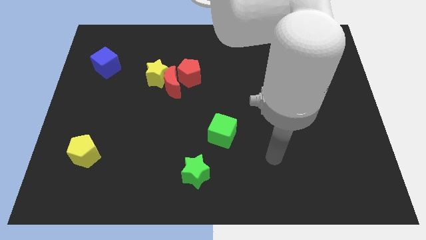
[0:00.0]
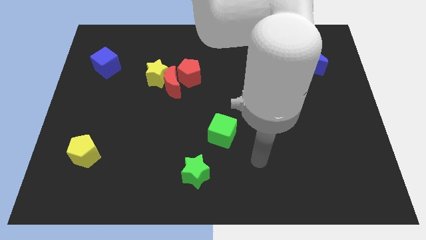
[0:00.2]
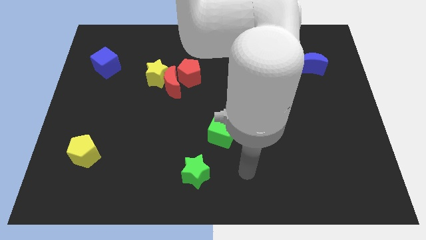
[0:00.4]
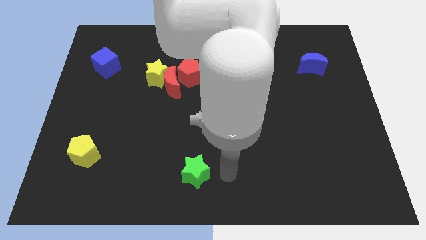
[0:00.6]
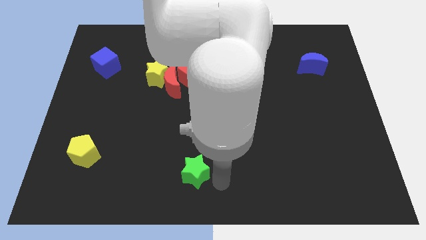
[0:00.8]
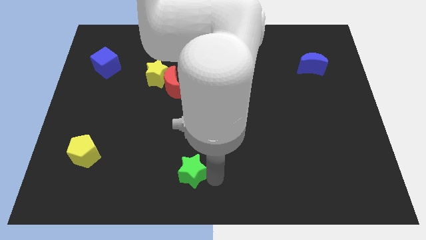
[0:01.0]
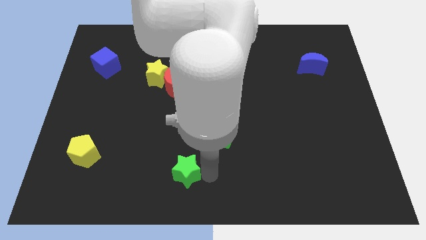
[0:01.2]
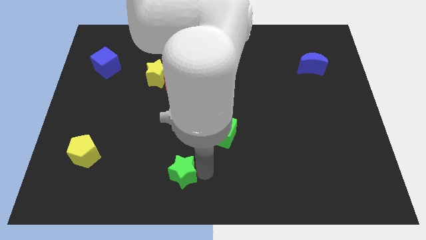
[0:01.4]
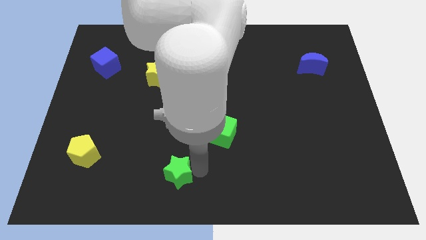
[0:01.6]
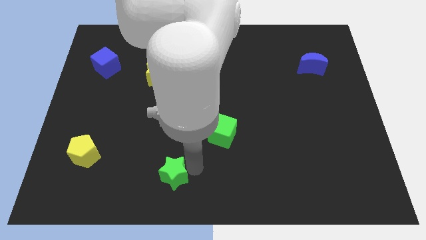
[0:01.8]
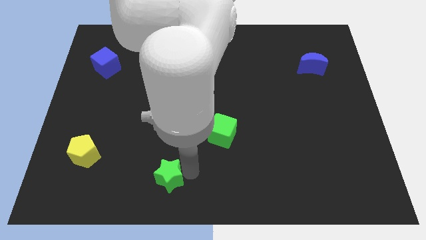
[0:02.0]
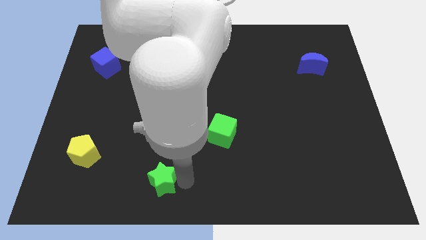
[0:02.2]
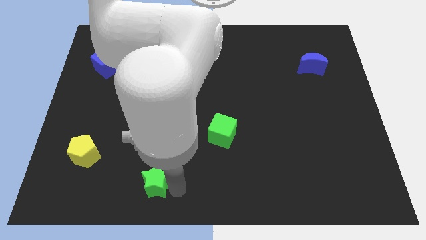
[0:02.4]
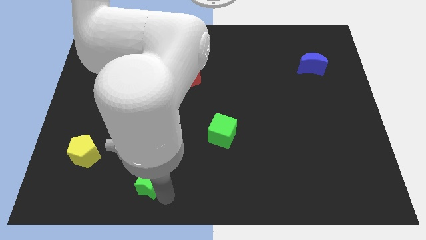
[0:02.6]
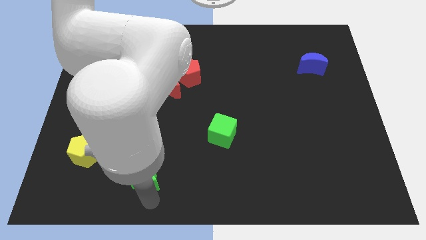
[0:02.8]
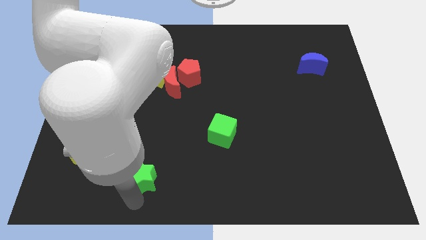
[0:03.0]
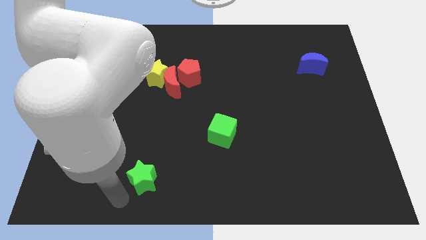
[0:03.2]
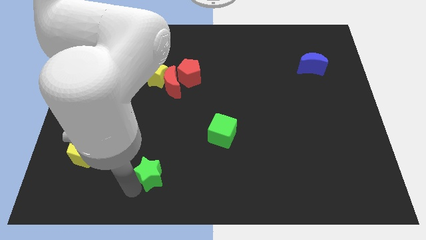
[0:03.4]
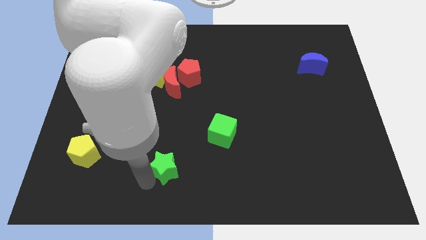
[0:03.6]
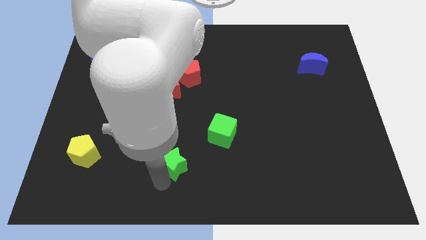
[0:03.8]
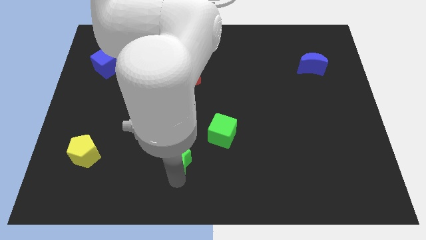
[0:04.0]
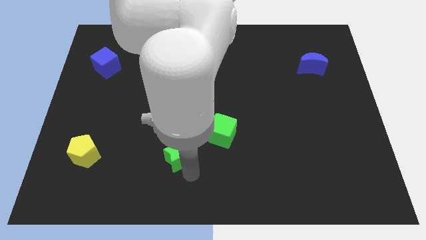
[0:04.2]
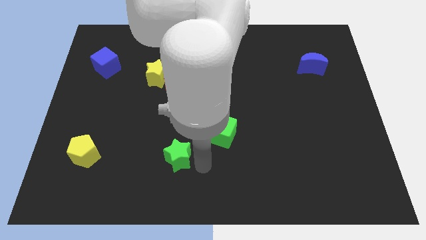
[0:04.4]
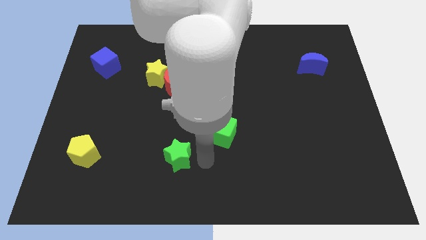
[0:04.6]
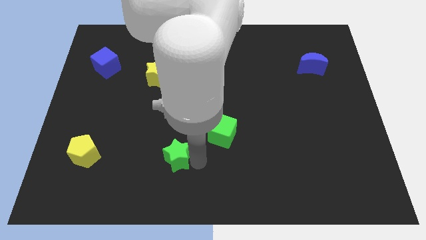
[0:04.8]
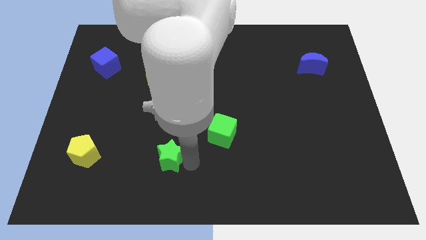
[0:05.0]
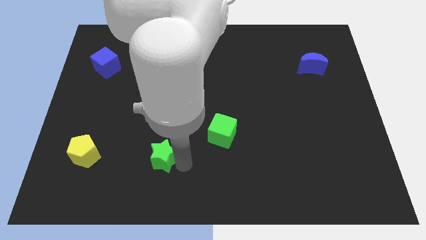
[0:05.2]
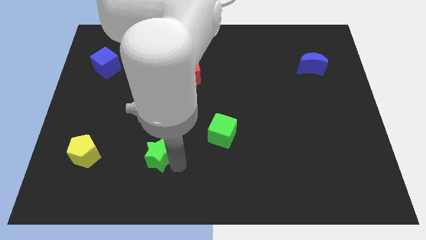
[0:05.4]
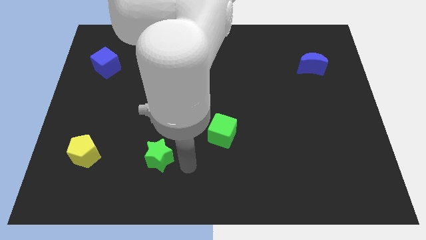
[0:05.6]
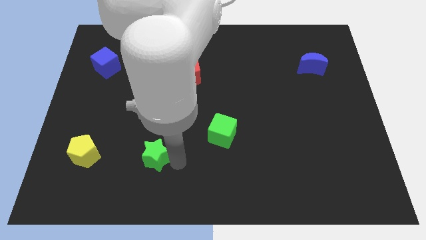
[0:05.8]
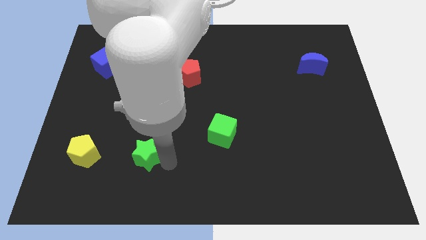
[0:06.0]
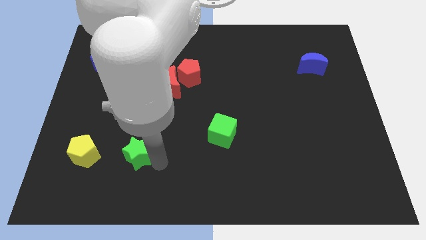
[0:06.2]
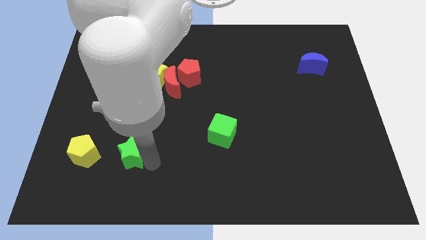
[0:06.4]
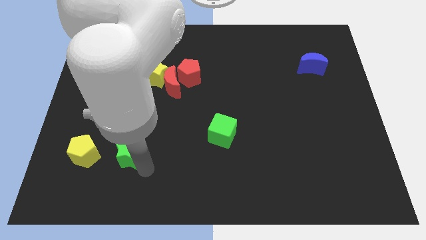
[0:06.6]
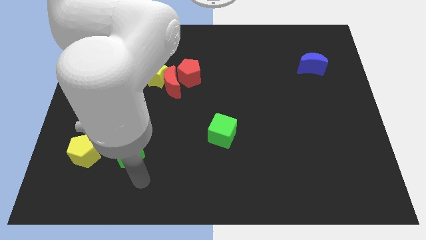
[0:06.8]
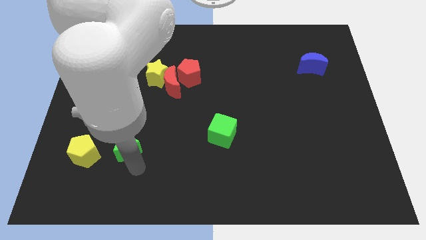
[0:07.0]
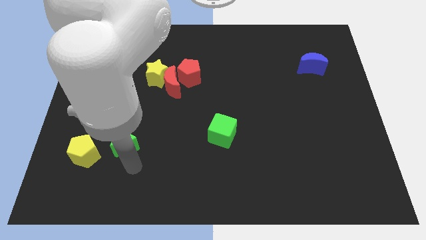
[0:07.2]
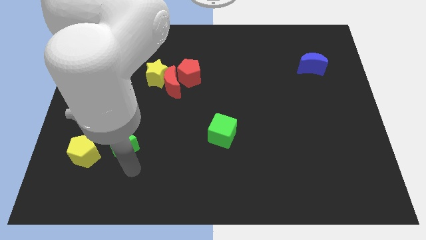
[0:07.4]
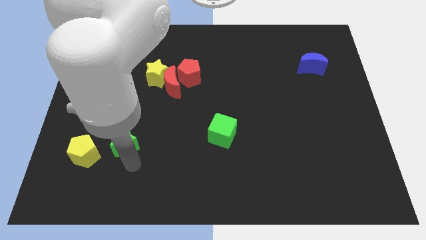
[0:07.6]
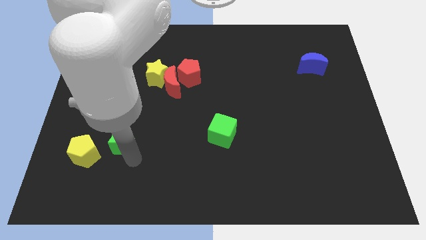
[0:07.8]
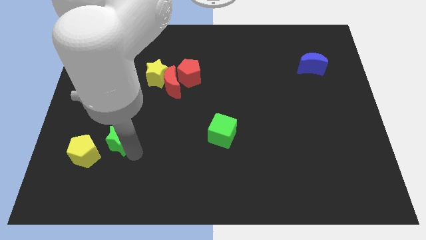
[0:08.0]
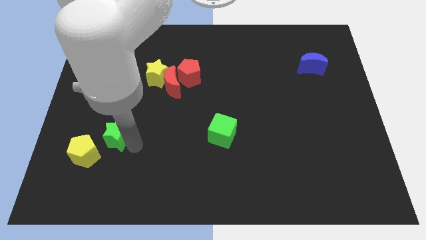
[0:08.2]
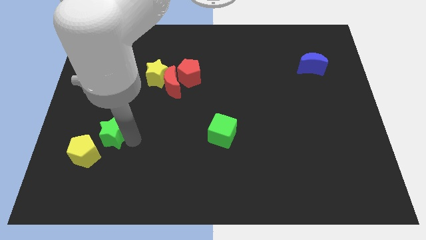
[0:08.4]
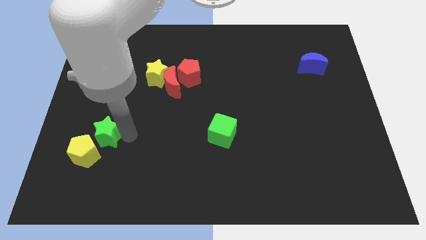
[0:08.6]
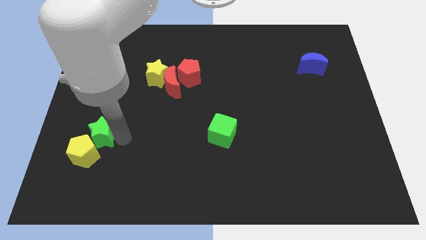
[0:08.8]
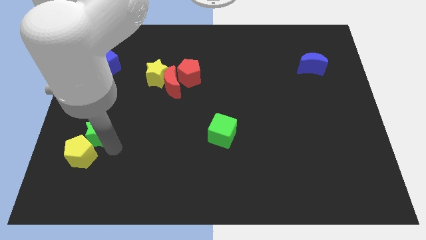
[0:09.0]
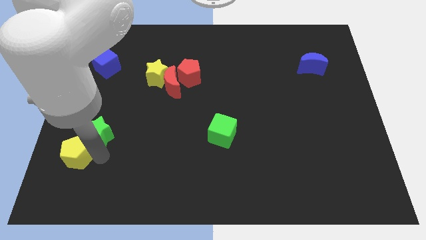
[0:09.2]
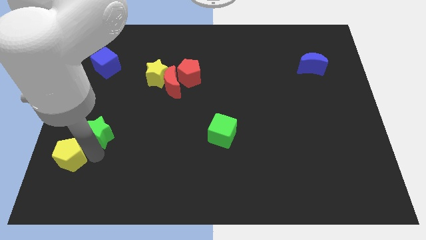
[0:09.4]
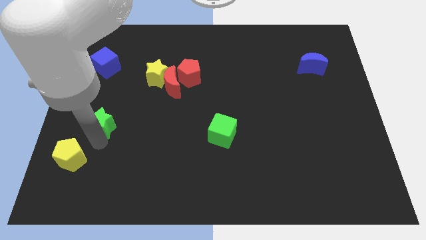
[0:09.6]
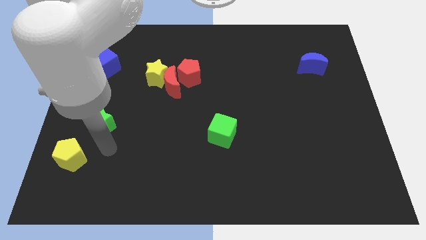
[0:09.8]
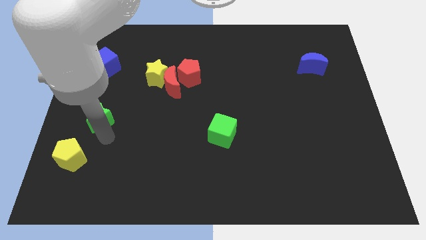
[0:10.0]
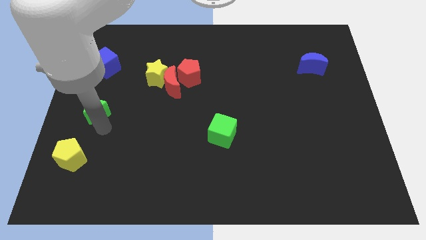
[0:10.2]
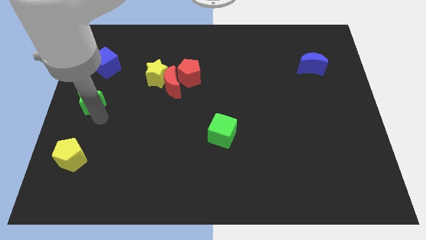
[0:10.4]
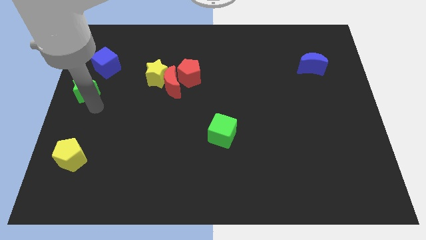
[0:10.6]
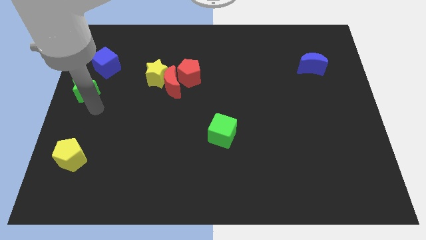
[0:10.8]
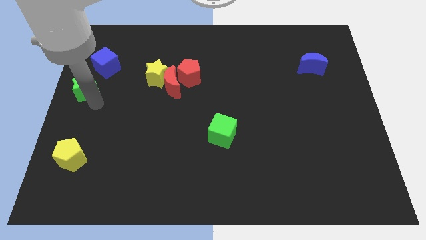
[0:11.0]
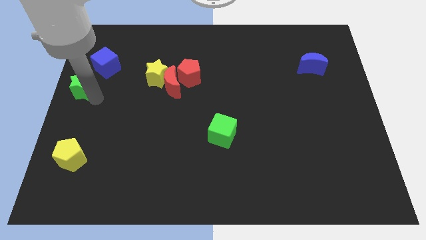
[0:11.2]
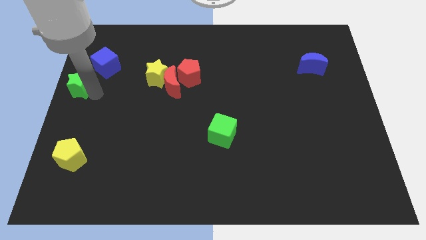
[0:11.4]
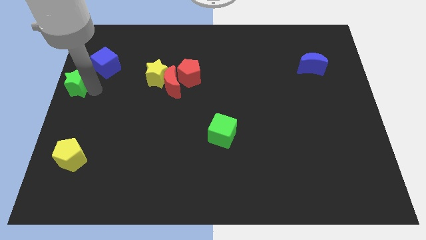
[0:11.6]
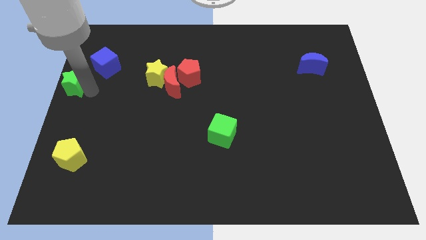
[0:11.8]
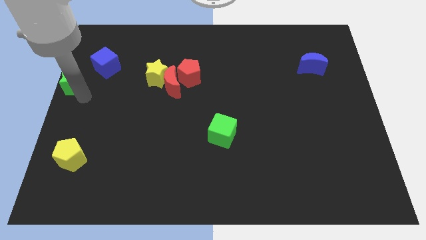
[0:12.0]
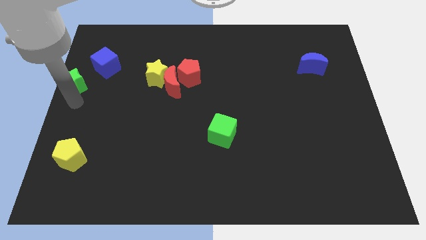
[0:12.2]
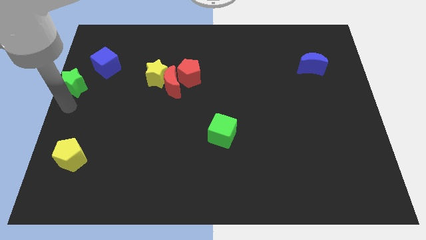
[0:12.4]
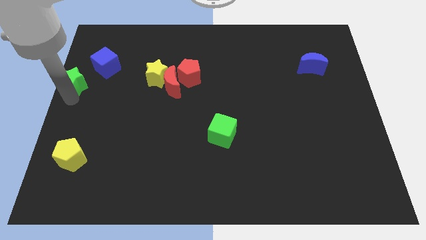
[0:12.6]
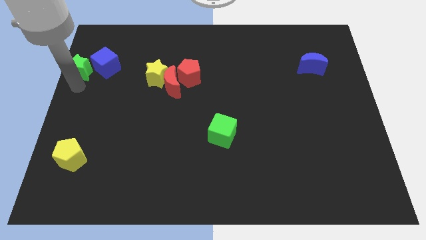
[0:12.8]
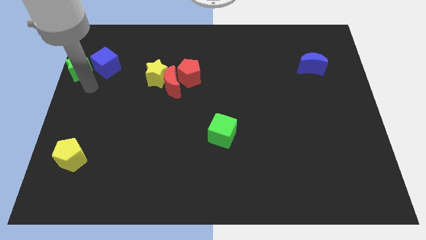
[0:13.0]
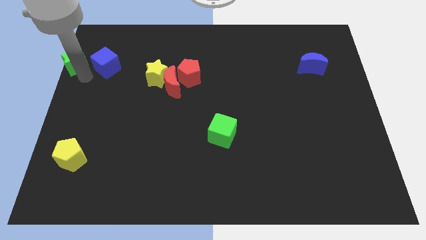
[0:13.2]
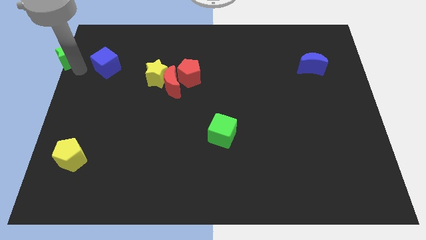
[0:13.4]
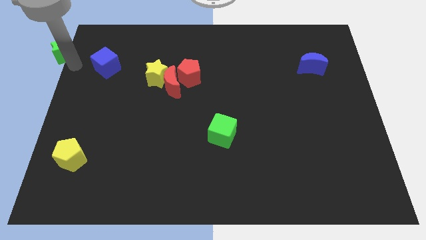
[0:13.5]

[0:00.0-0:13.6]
move the green star to the top left of the board
